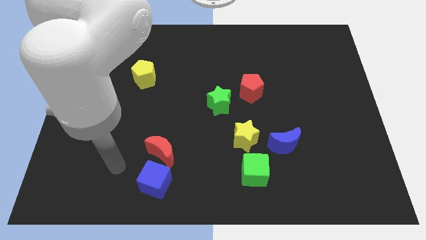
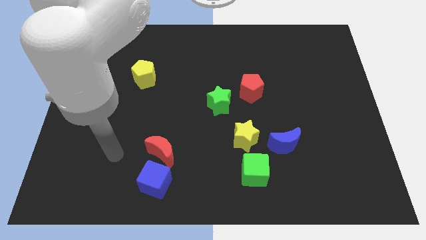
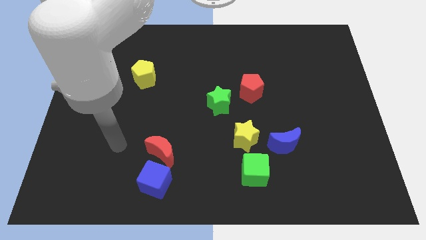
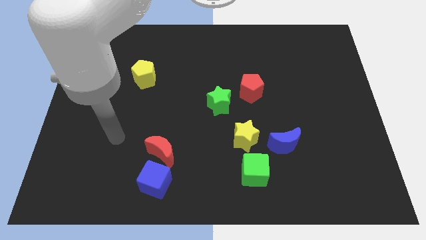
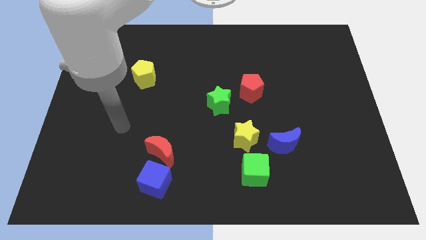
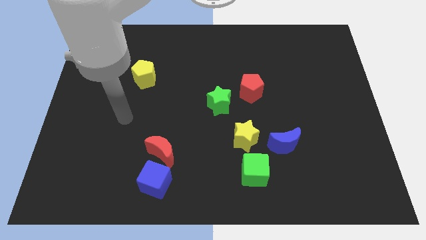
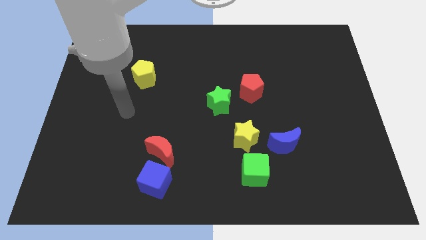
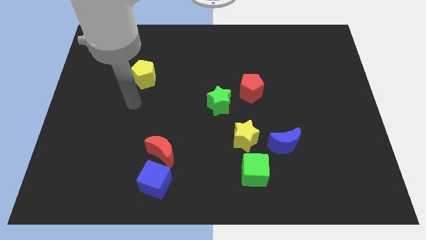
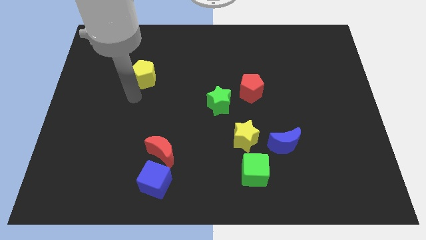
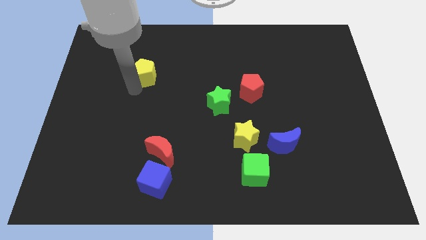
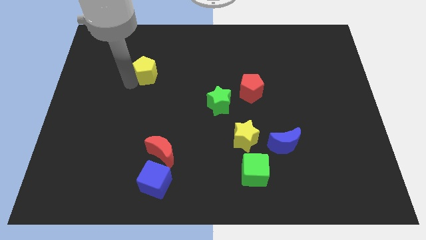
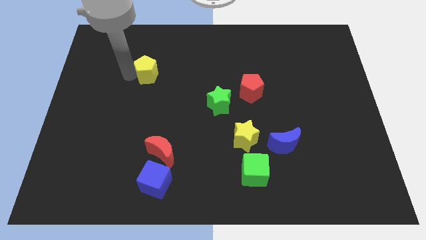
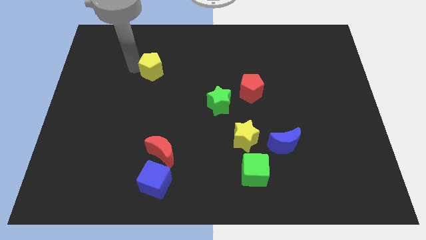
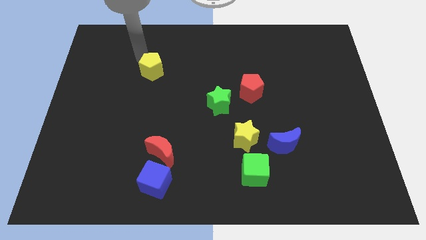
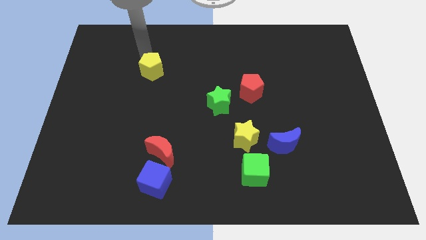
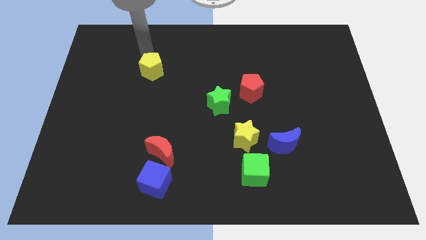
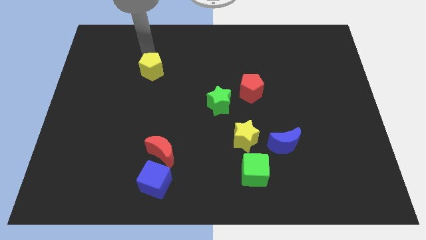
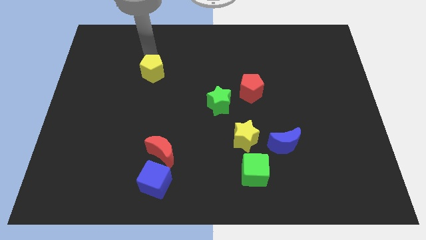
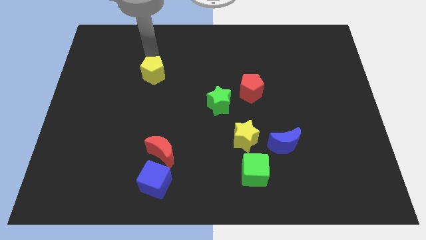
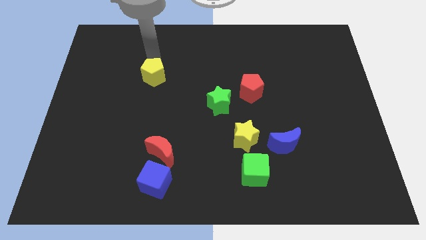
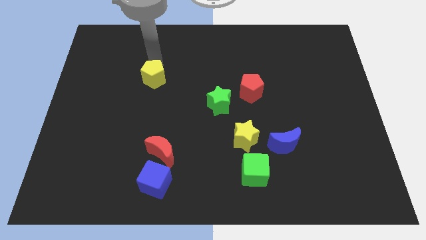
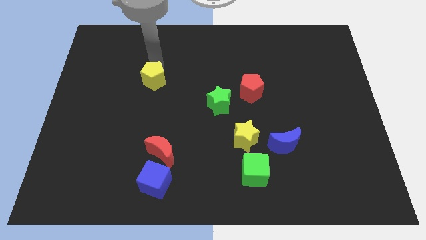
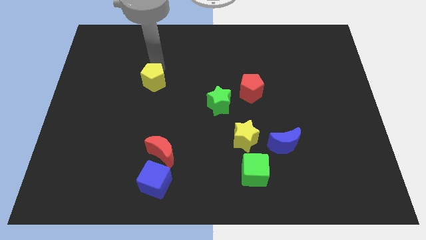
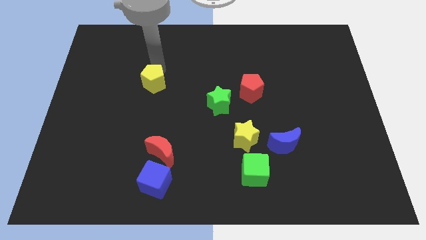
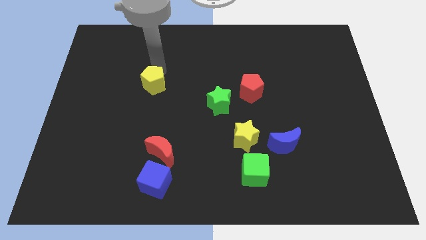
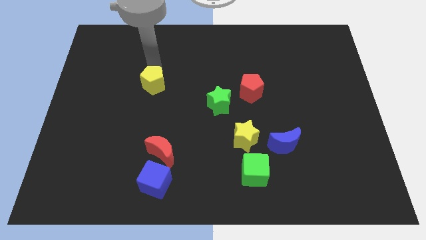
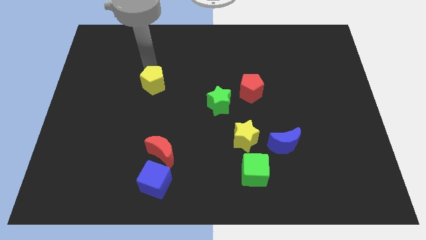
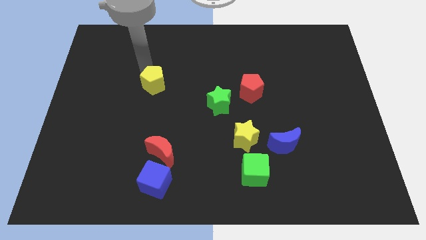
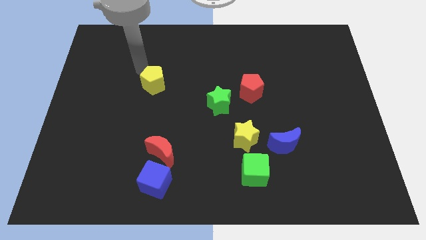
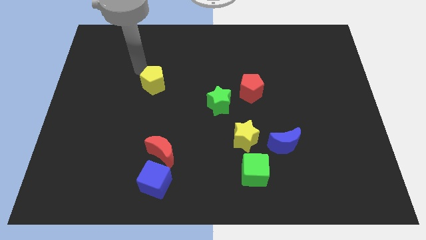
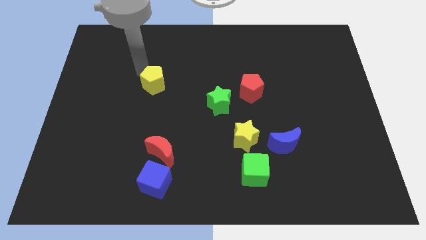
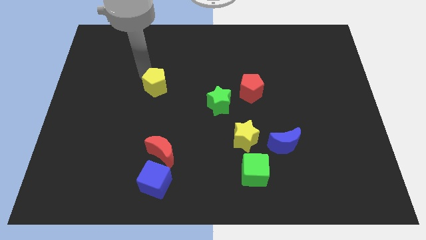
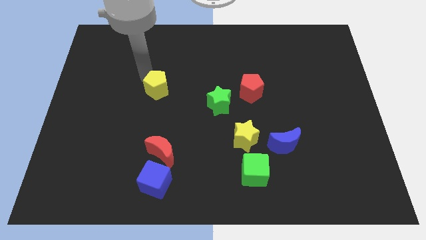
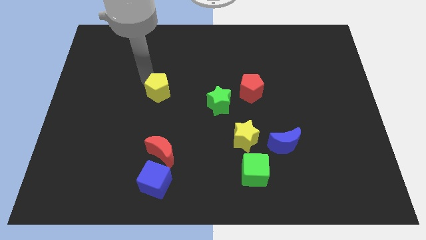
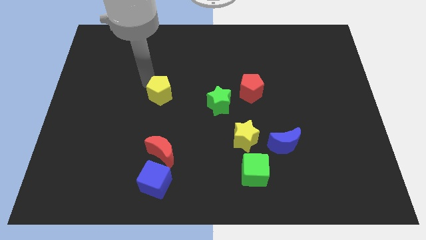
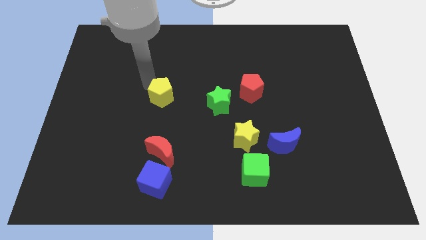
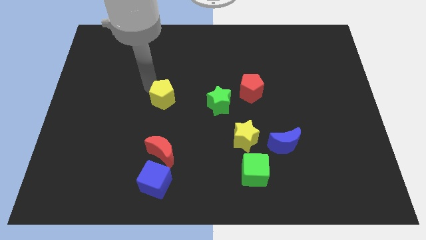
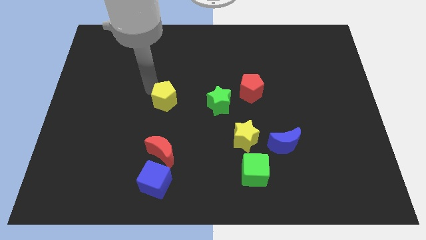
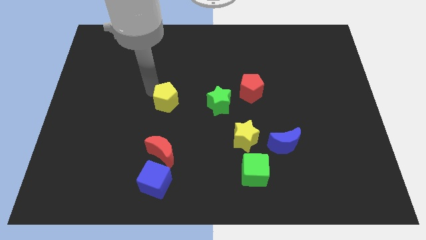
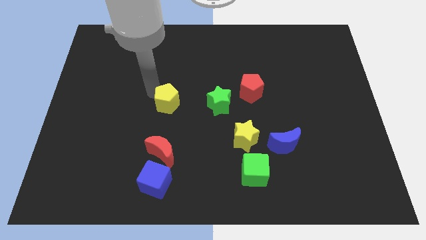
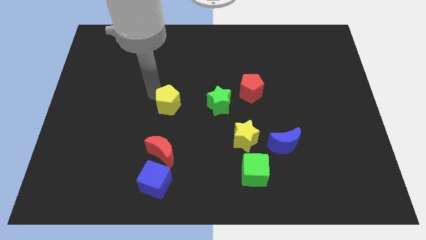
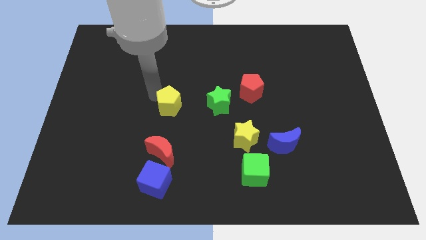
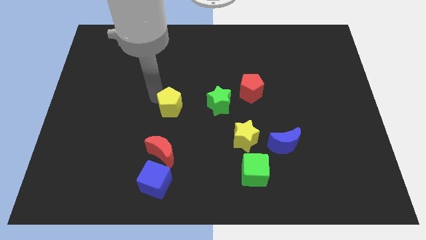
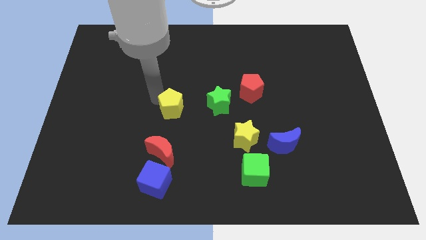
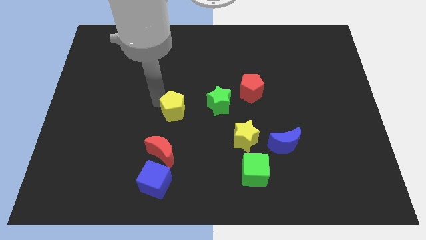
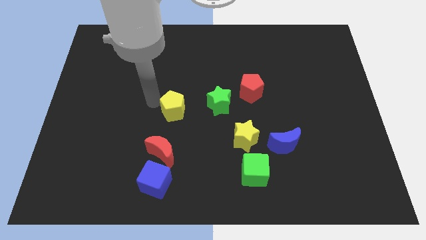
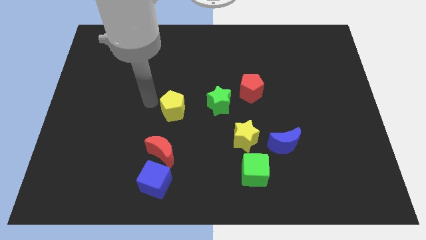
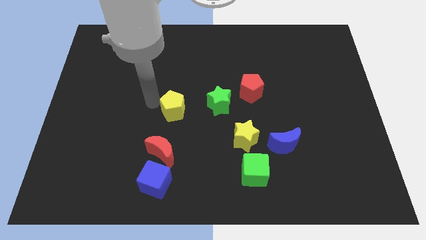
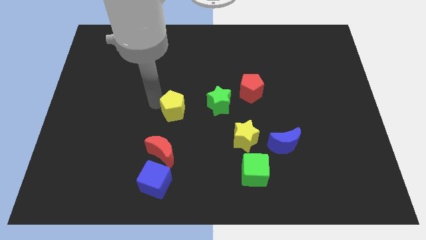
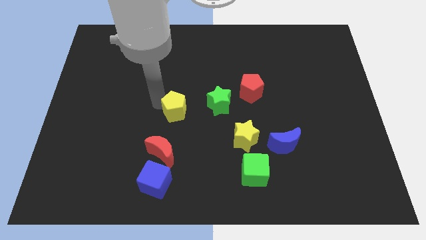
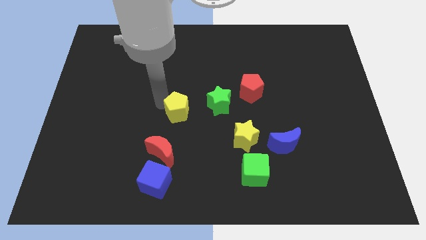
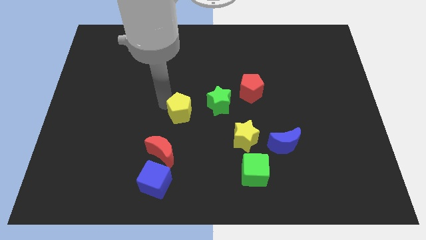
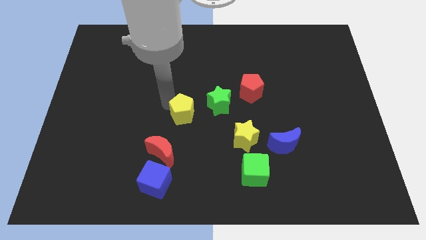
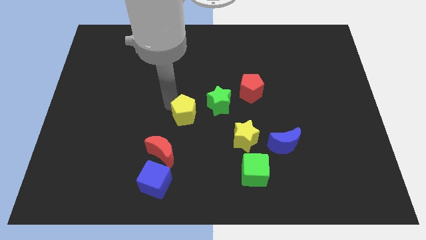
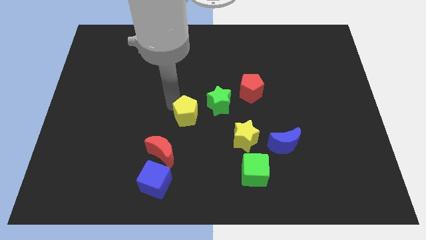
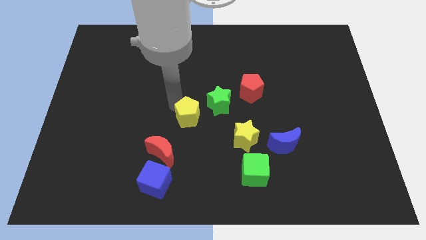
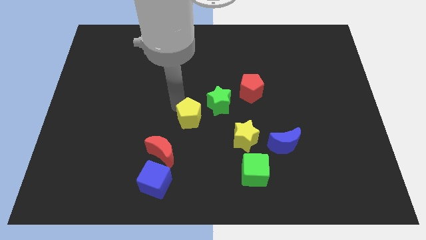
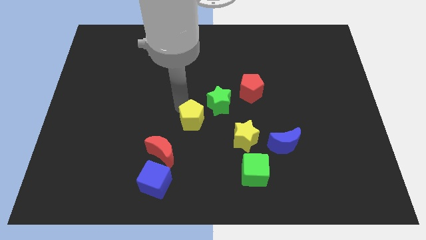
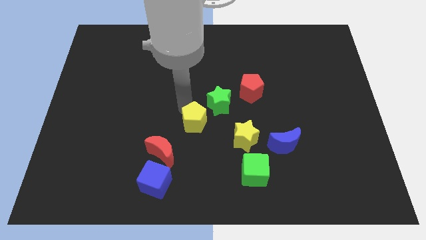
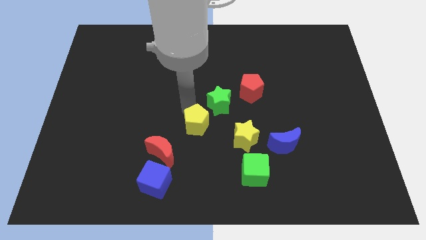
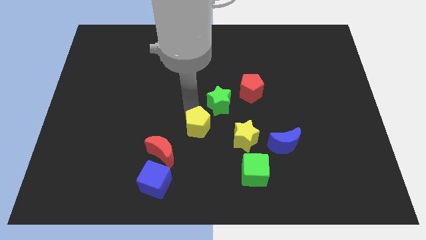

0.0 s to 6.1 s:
slide the yellow pentagon down and right

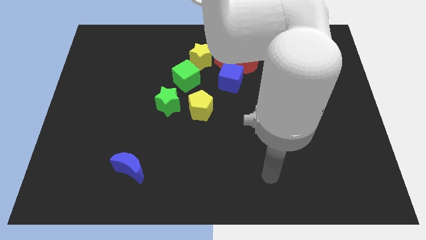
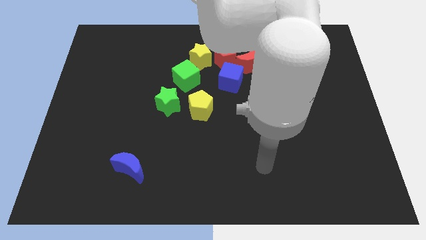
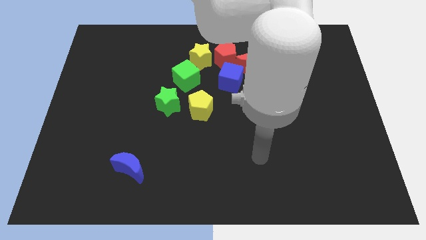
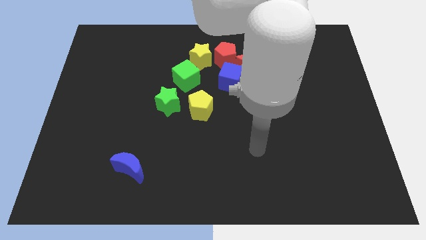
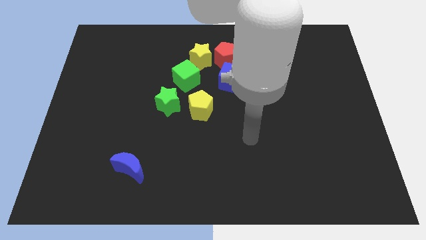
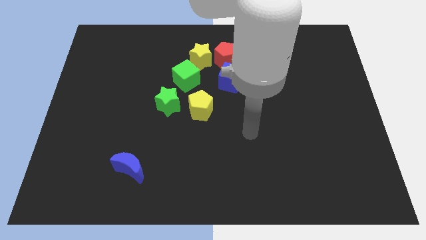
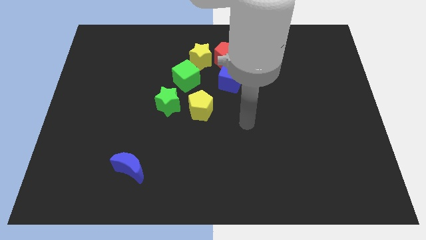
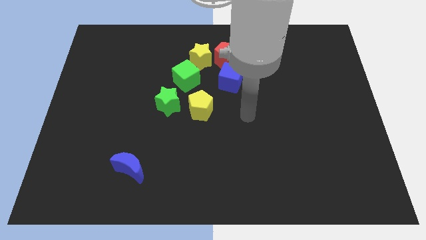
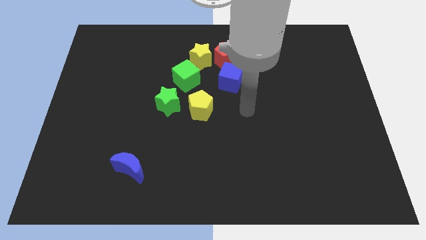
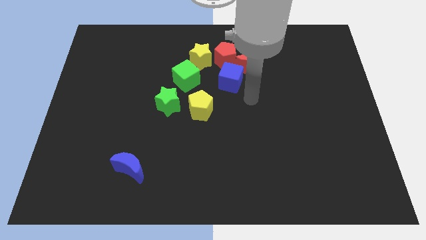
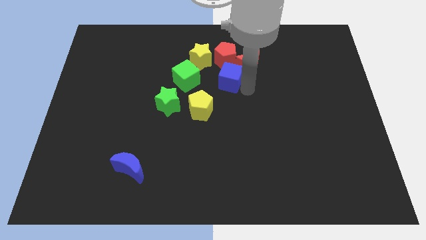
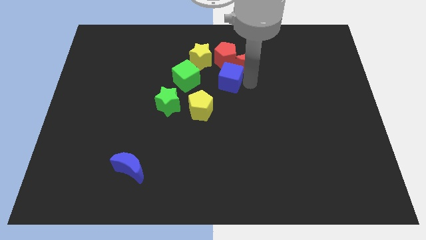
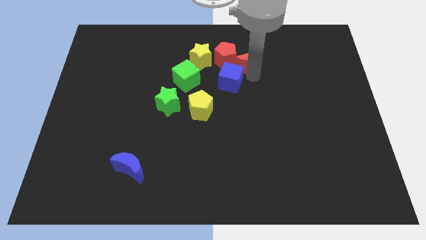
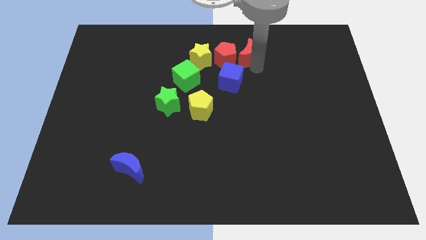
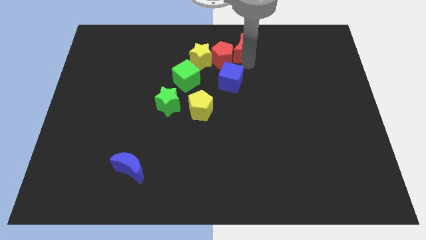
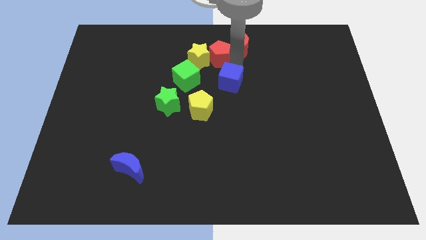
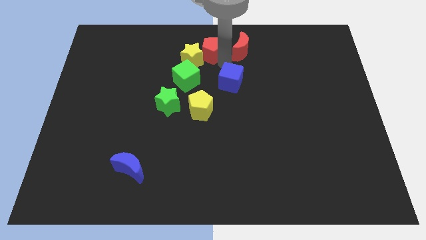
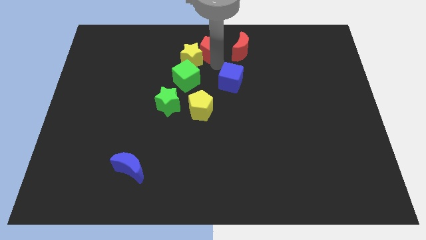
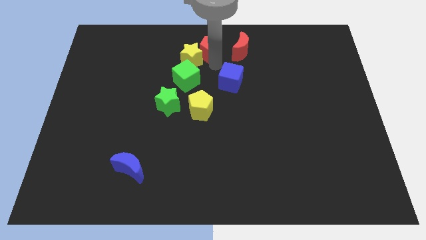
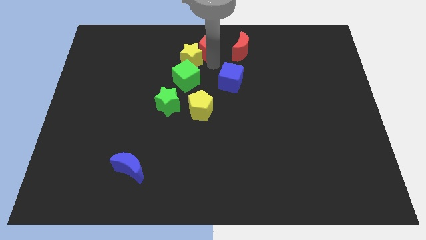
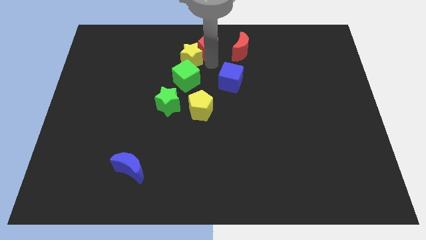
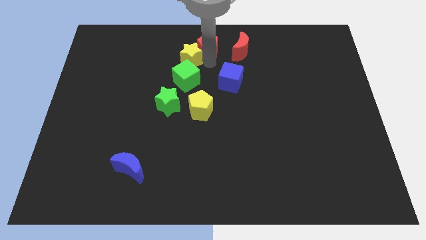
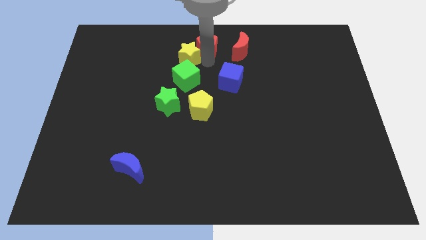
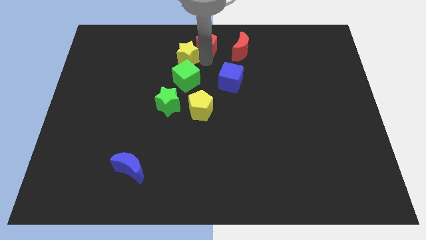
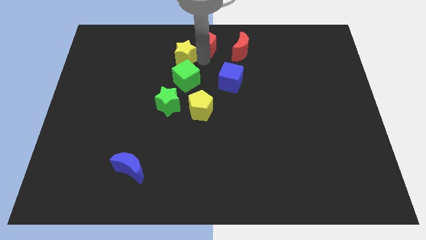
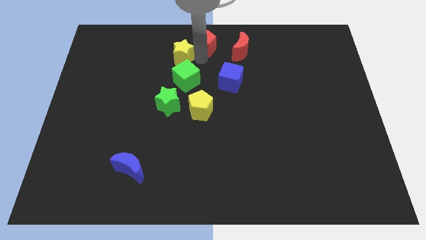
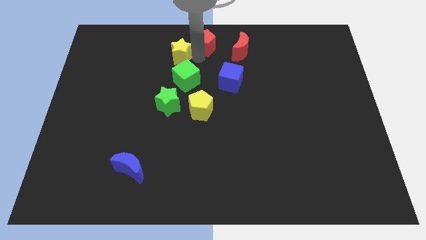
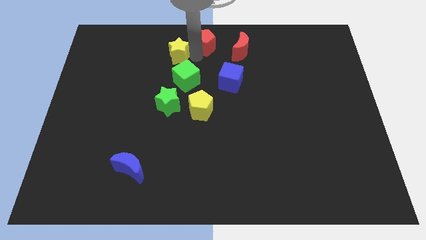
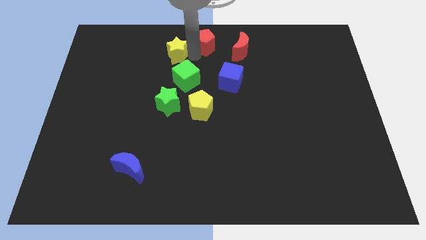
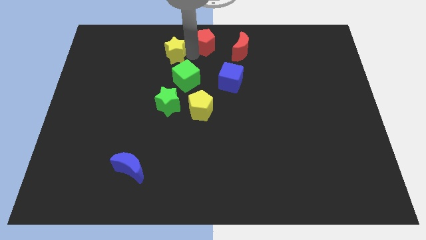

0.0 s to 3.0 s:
slightly move the yellow star left
